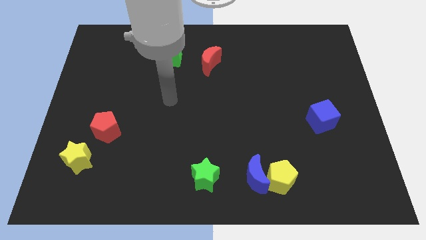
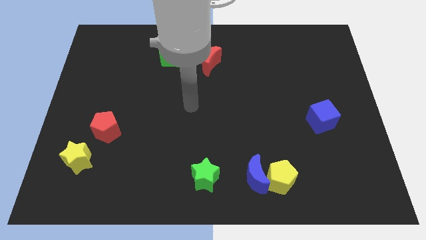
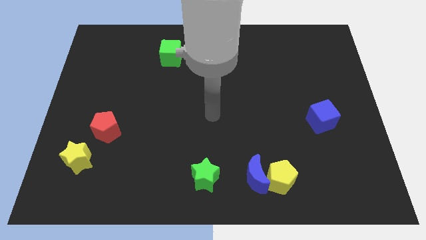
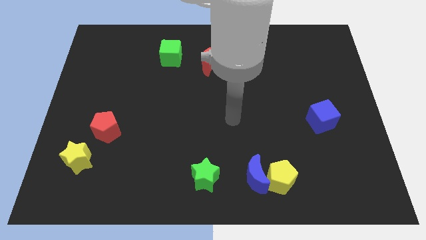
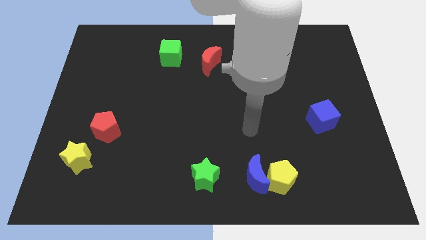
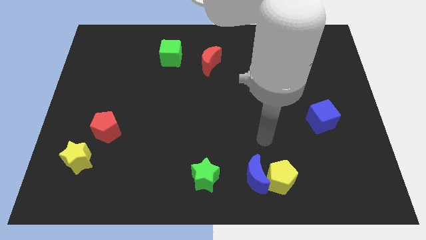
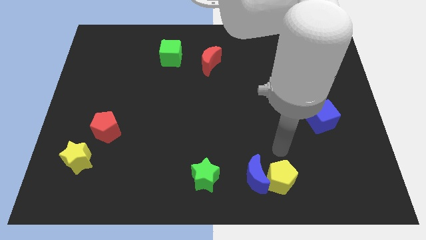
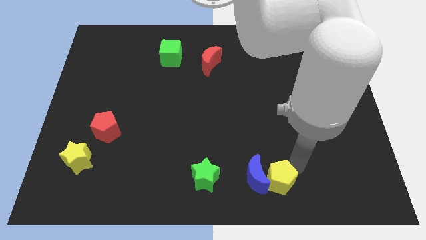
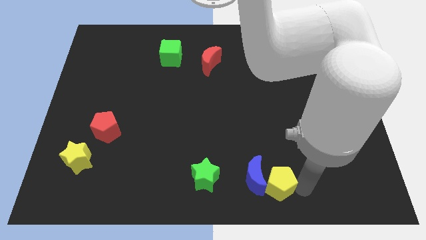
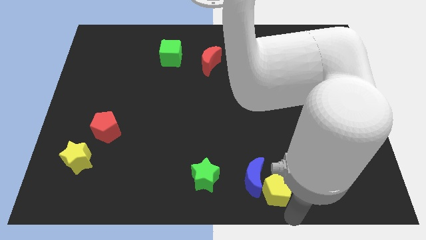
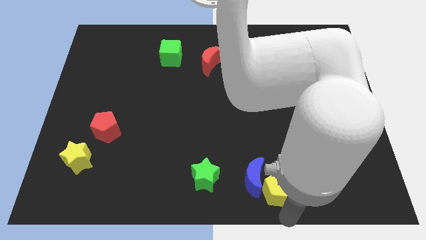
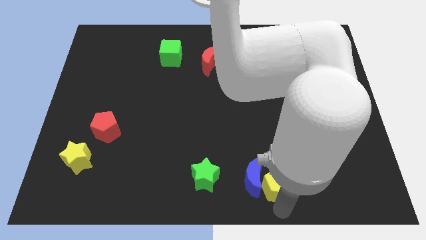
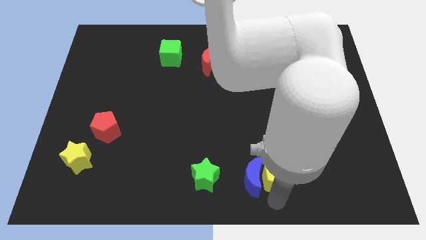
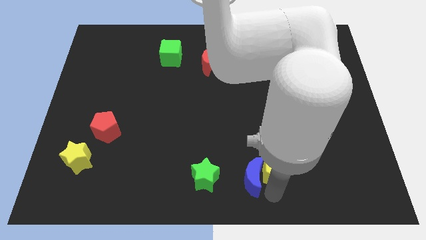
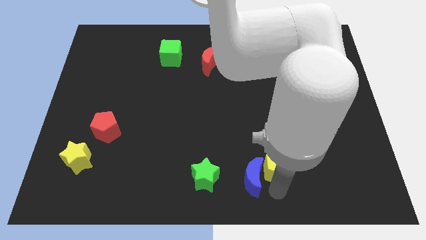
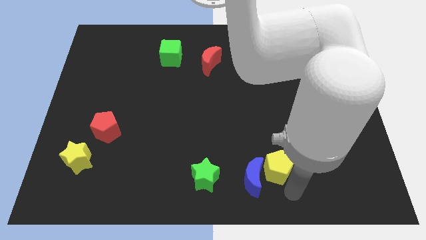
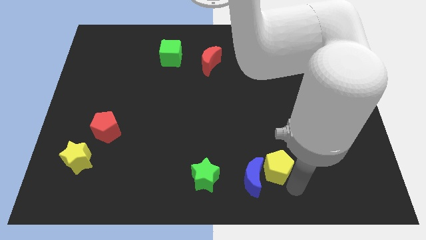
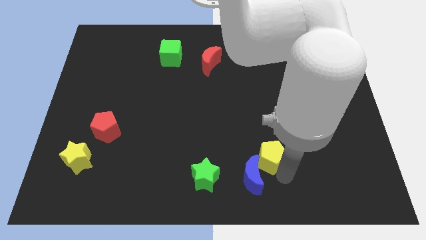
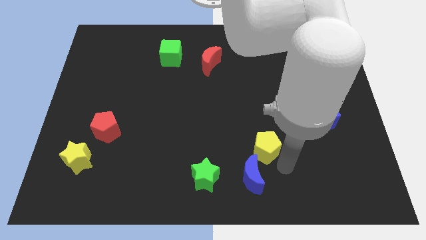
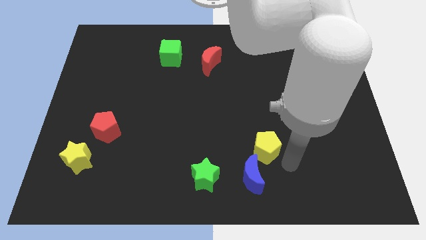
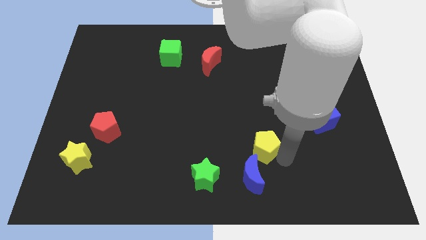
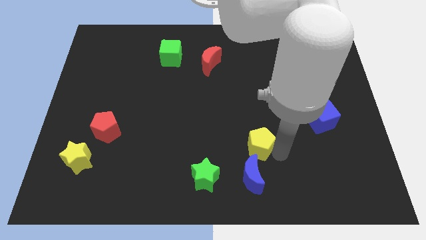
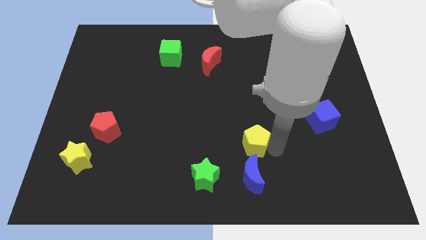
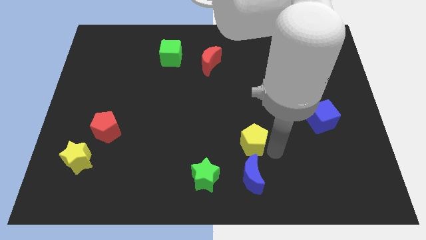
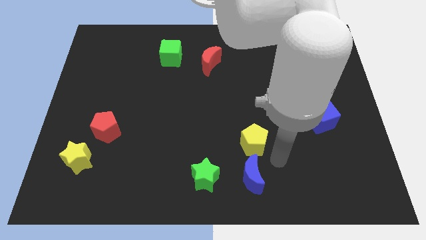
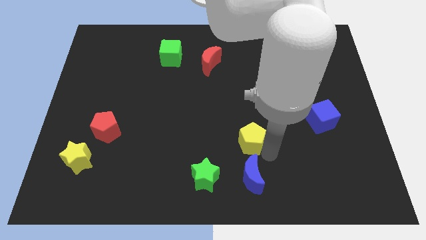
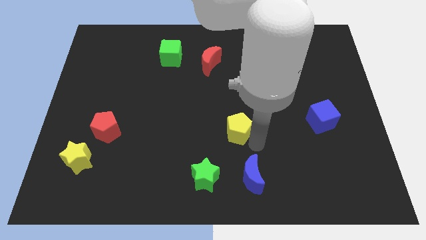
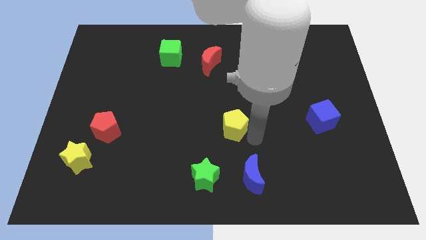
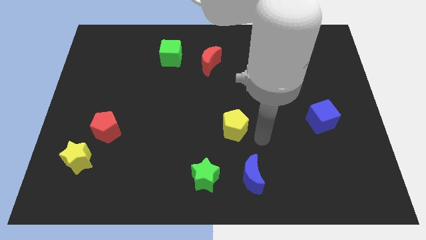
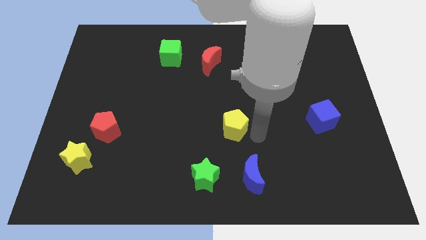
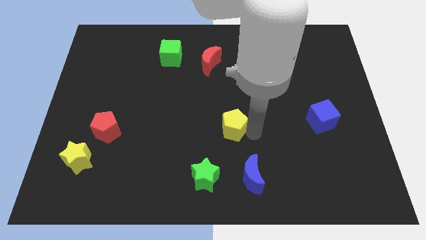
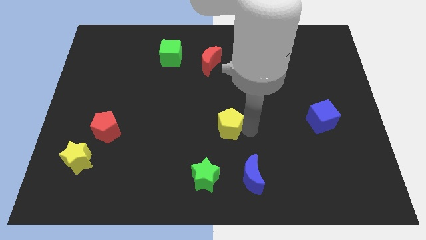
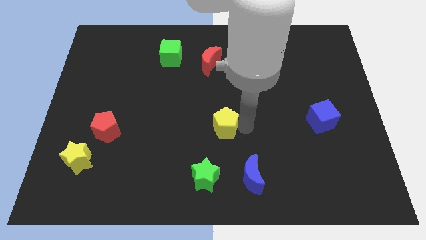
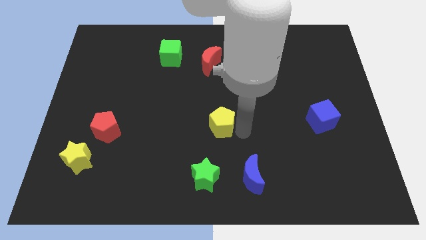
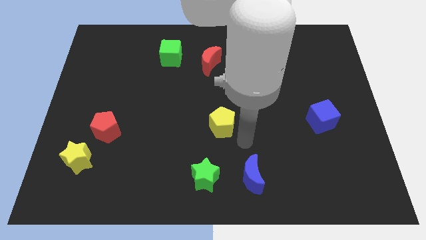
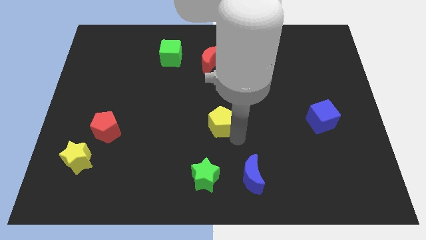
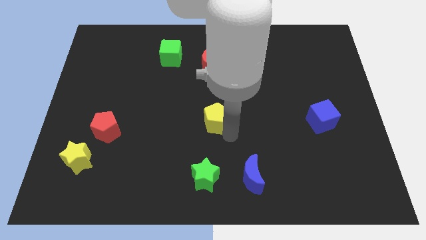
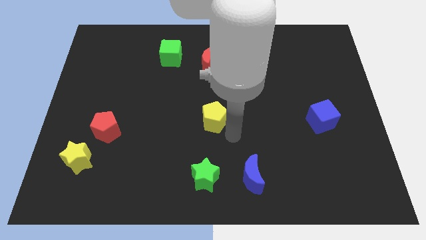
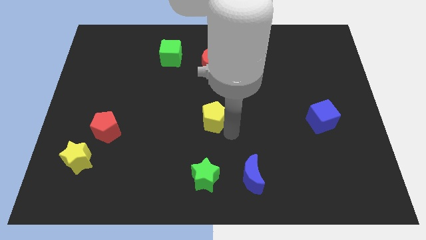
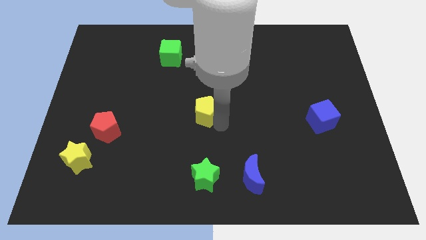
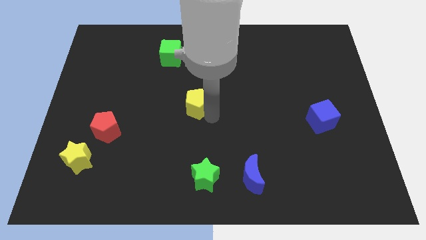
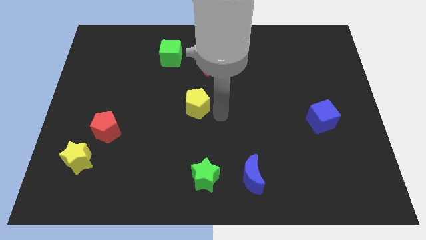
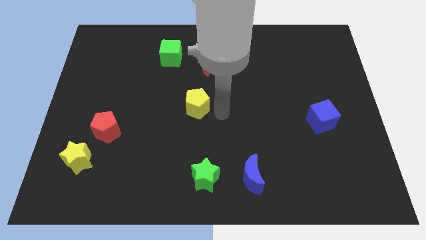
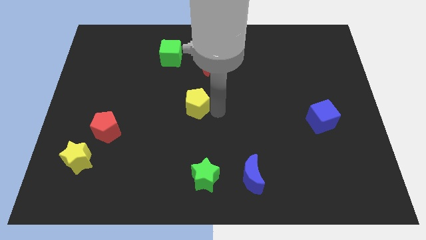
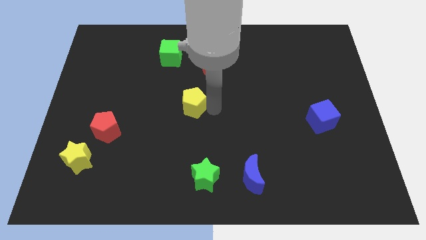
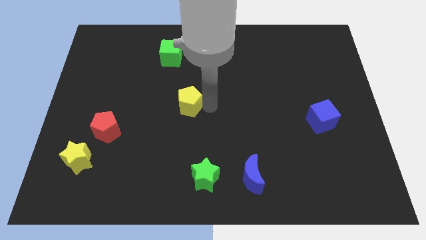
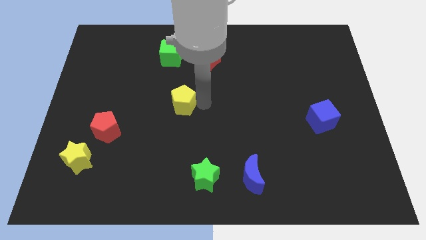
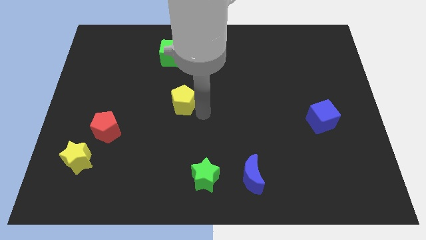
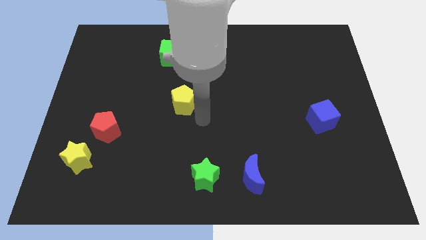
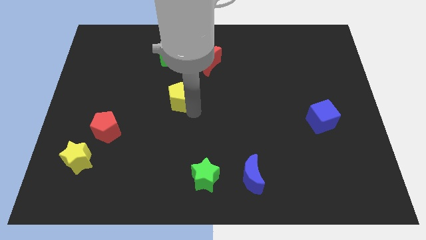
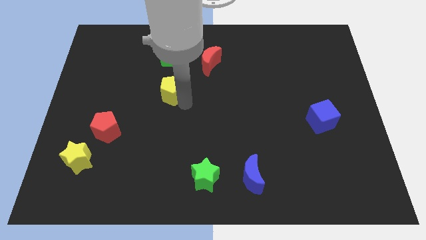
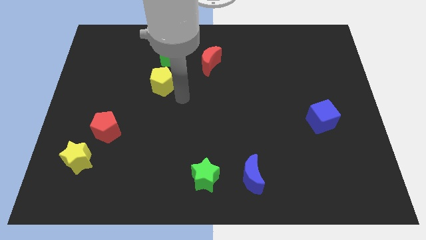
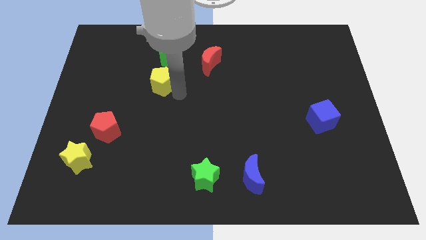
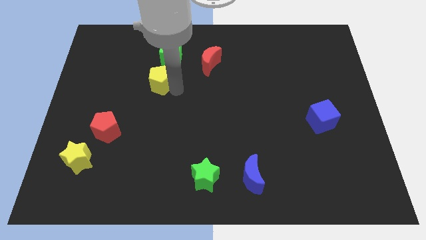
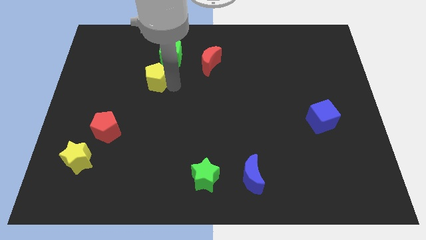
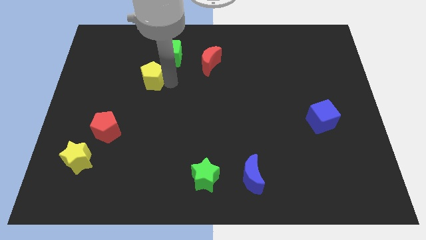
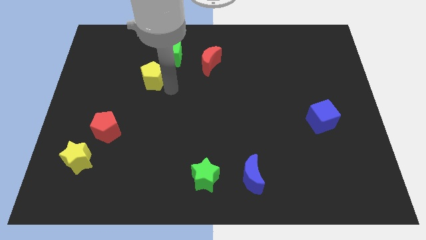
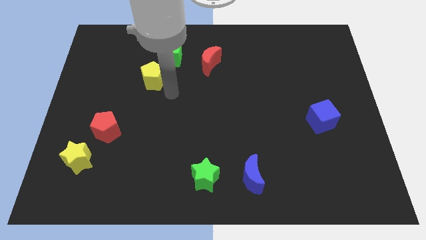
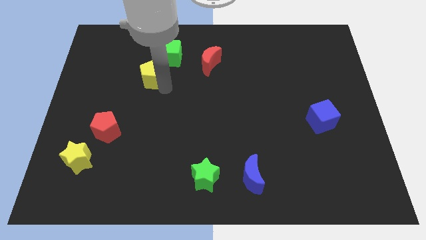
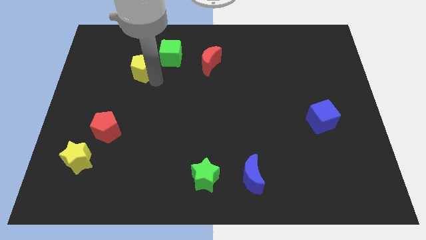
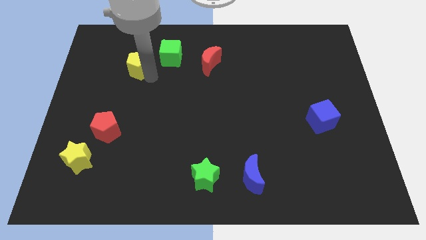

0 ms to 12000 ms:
slide the yellow pentagon left of the green cube

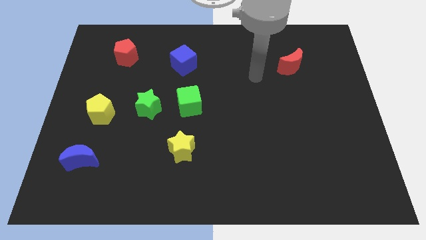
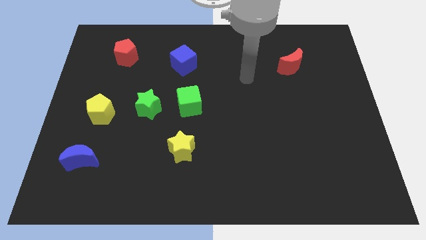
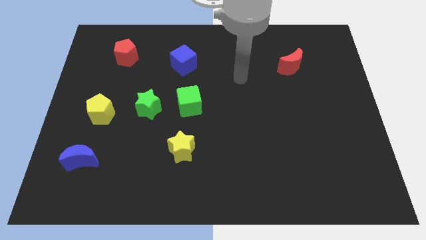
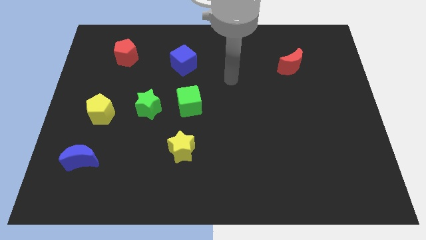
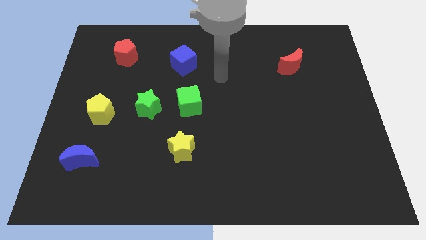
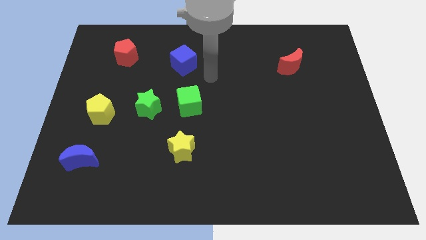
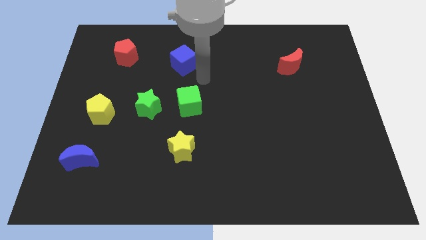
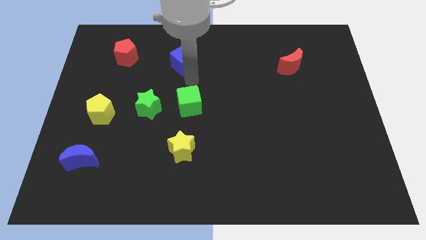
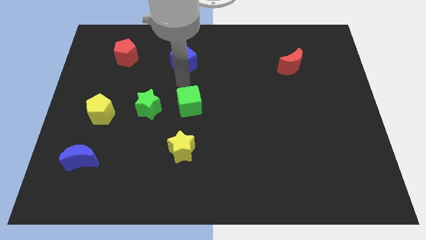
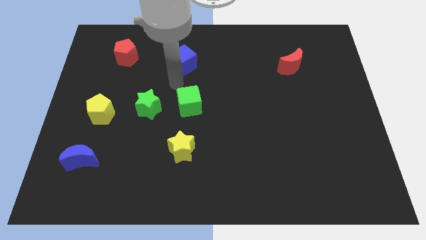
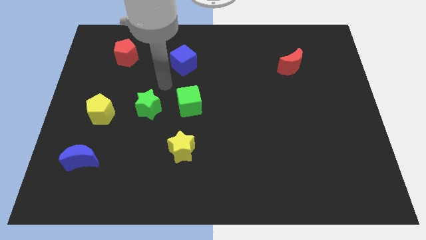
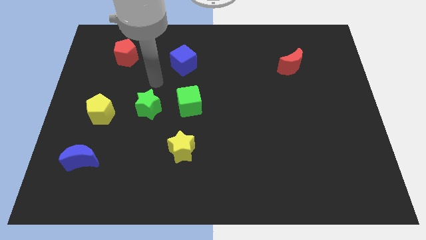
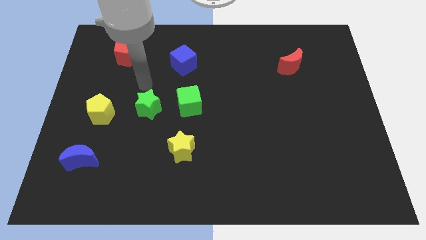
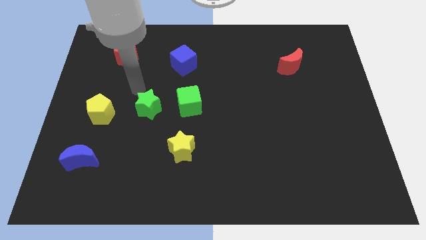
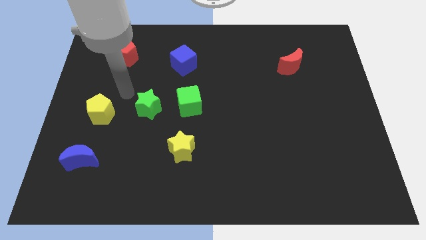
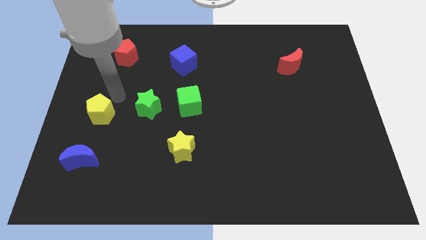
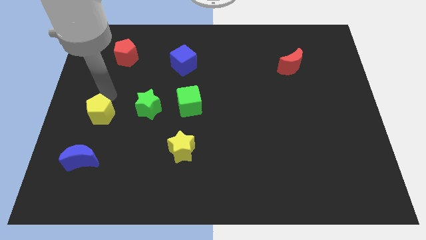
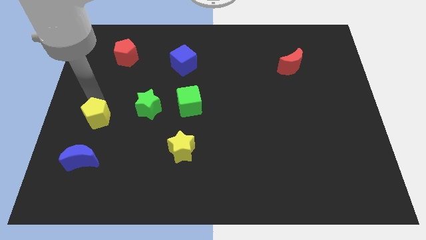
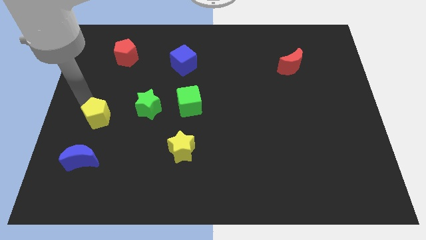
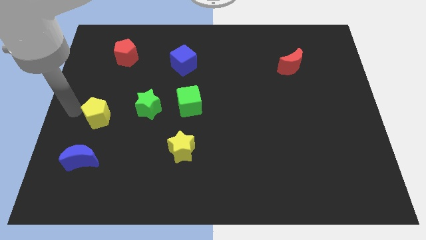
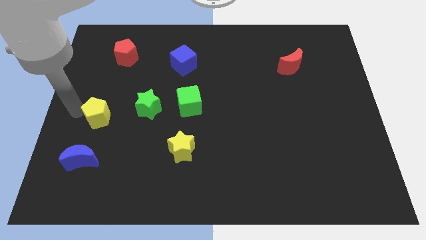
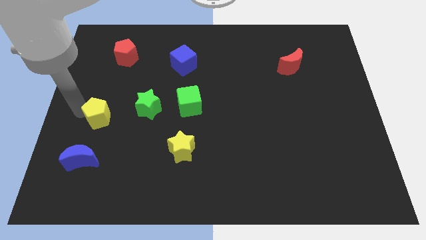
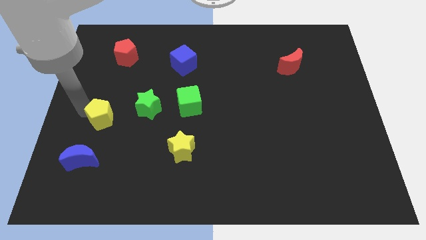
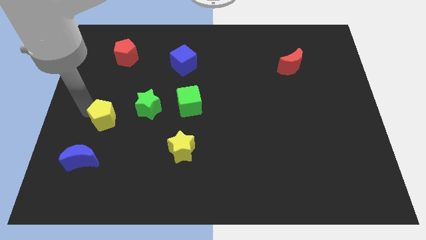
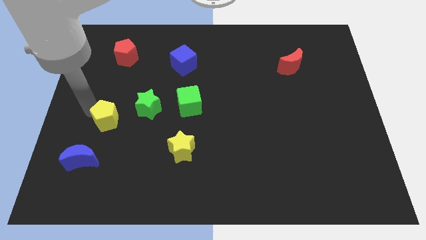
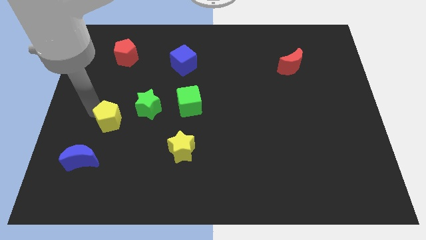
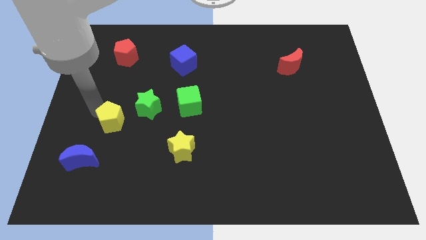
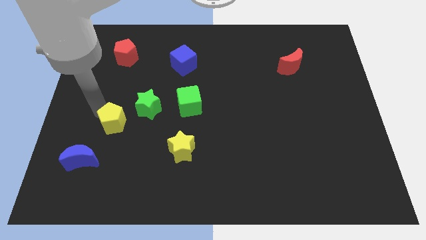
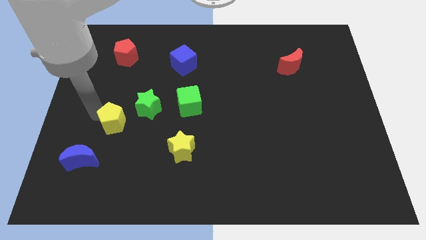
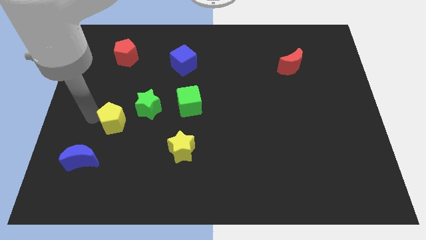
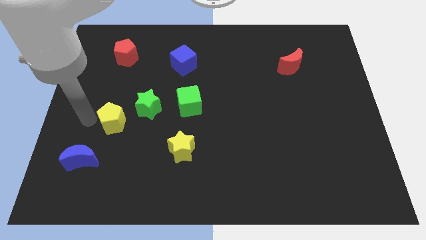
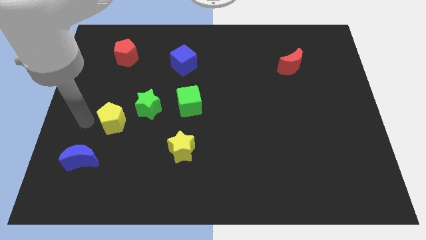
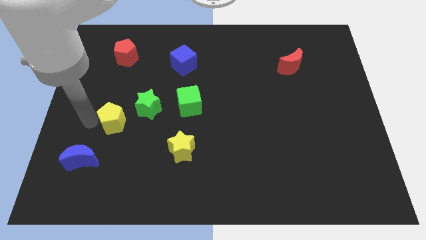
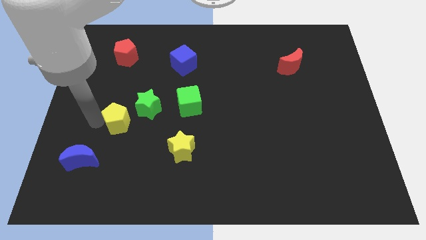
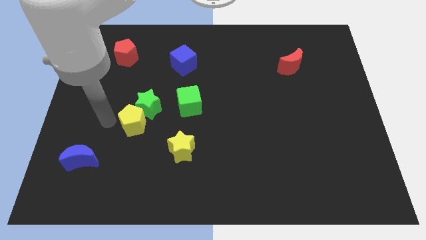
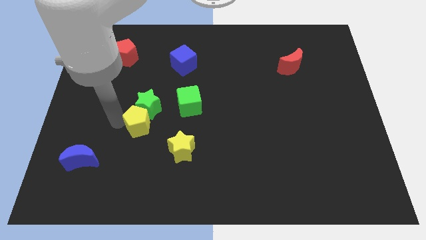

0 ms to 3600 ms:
put the yellow pentagon diagonally down and to the right of the green star
